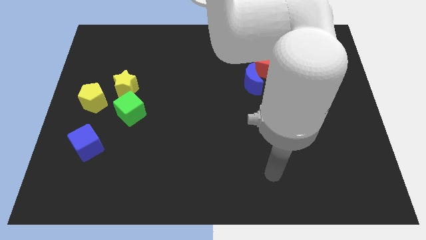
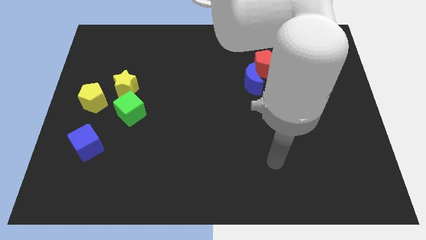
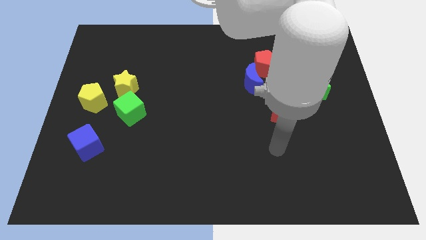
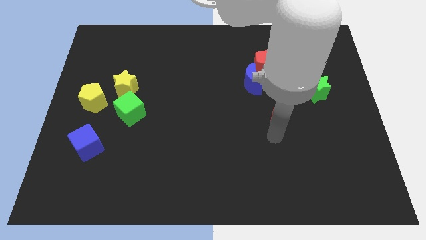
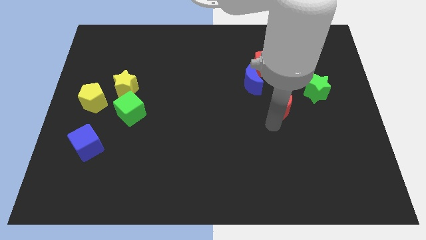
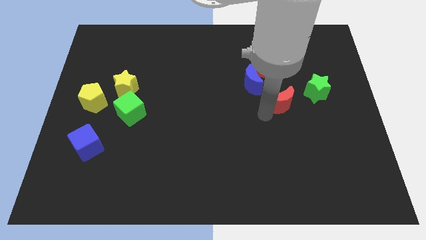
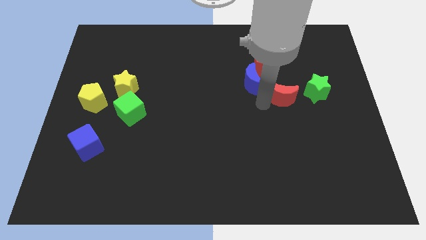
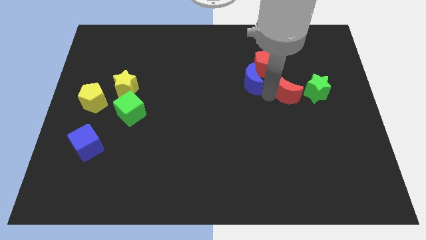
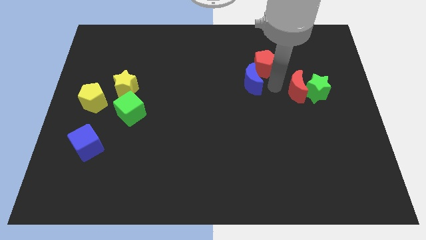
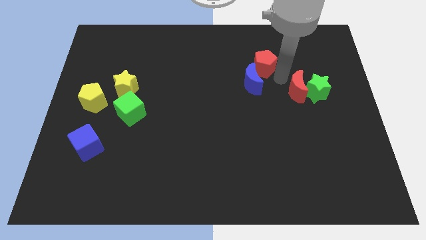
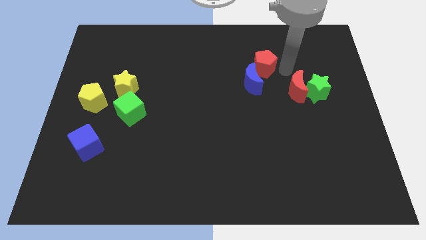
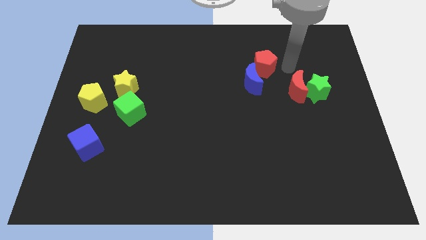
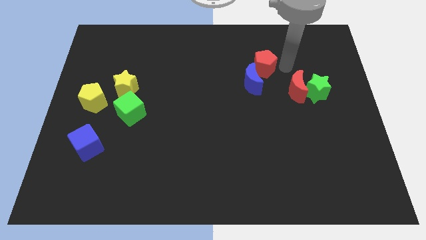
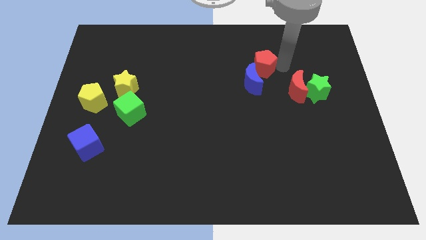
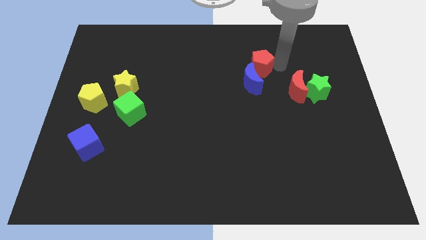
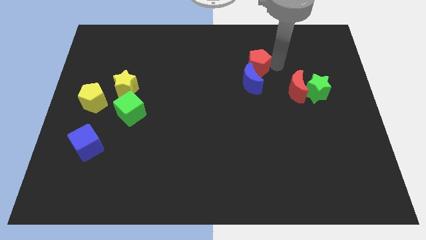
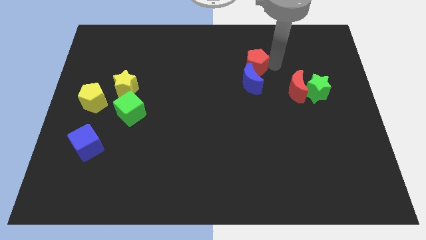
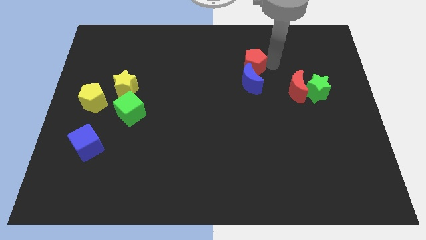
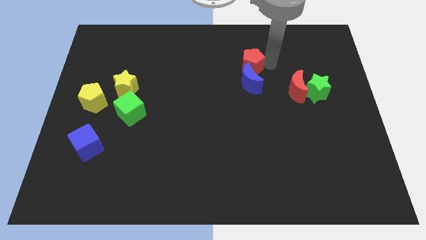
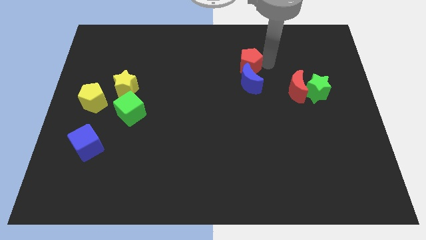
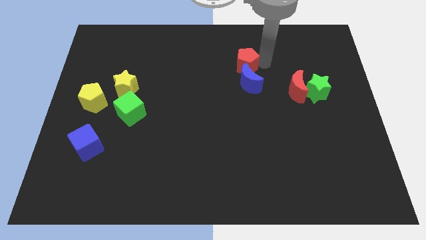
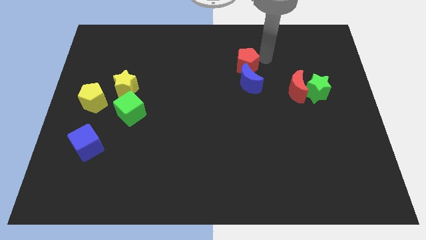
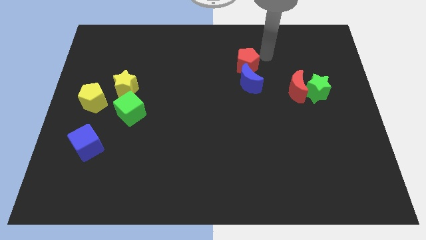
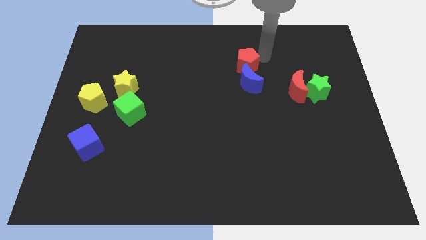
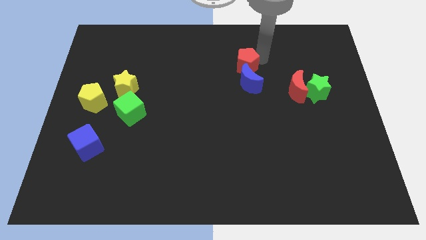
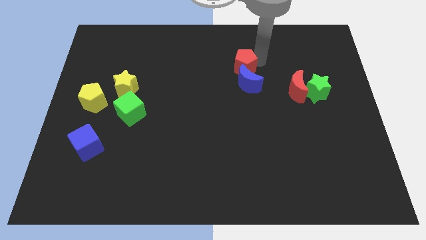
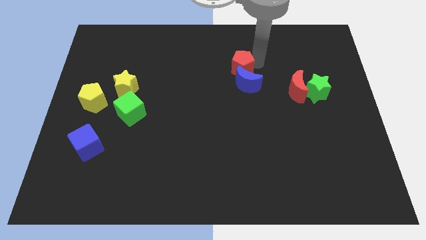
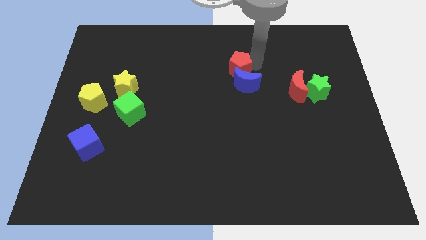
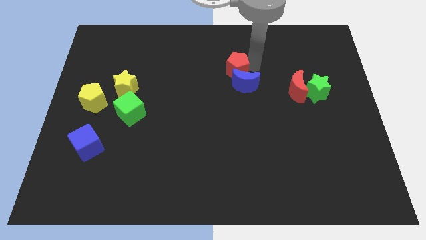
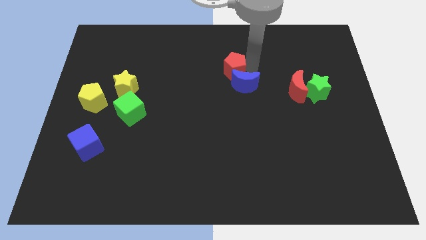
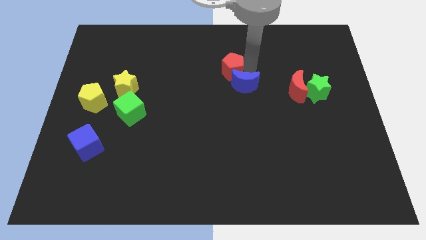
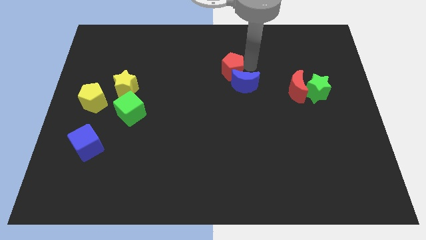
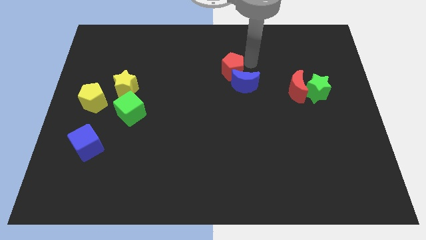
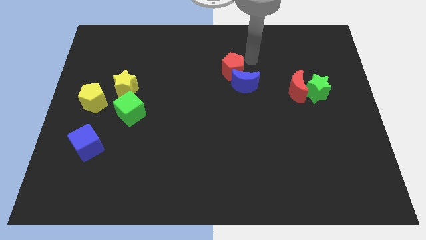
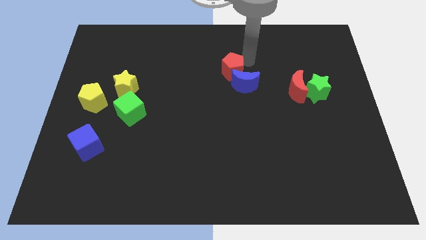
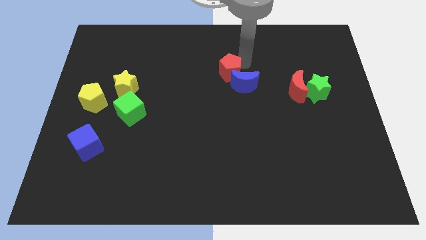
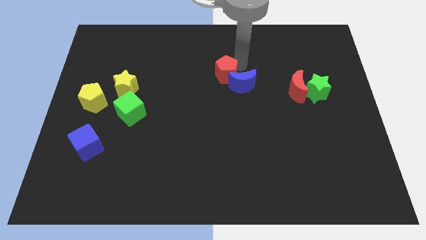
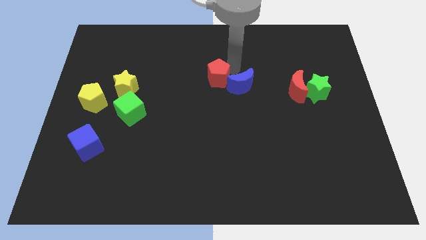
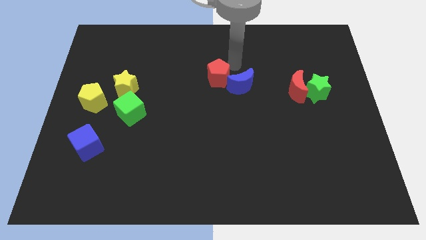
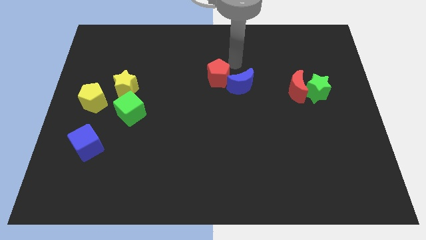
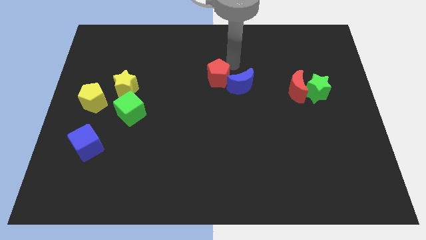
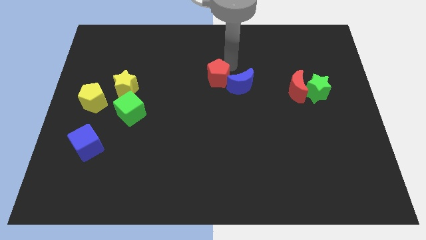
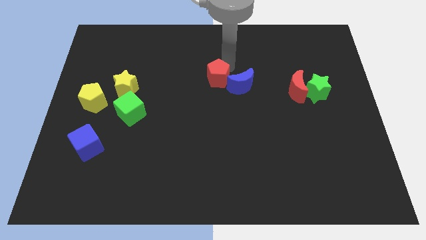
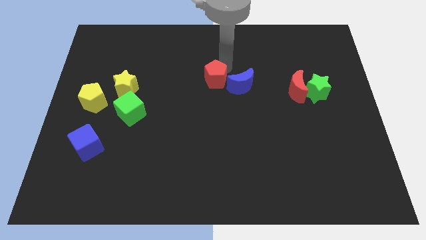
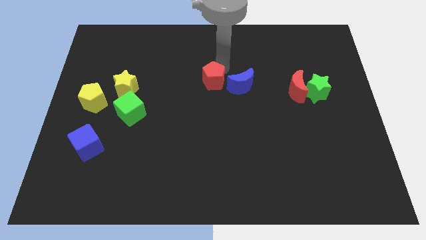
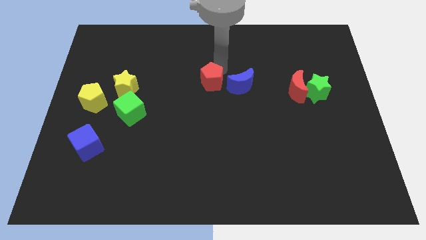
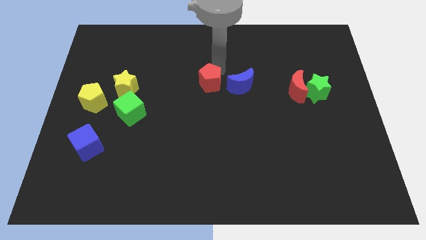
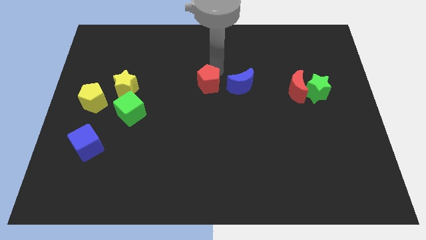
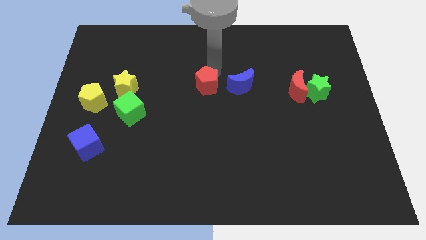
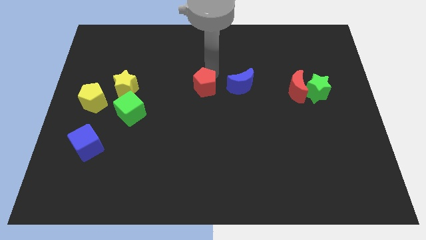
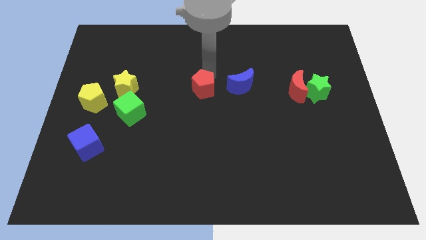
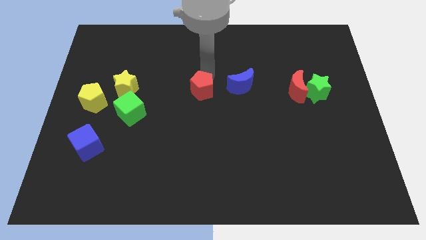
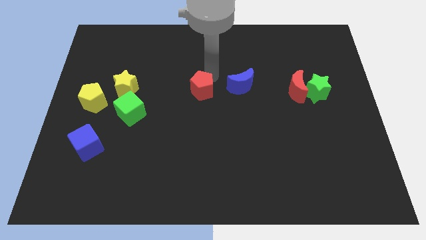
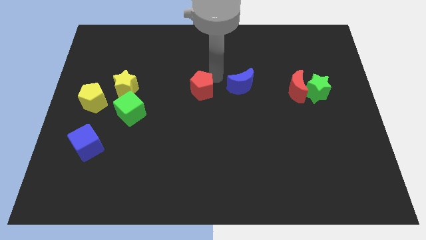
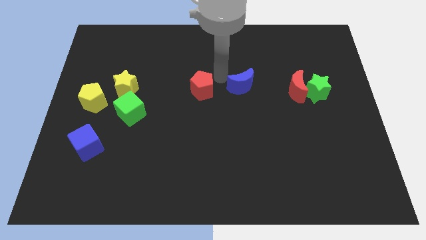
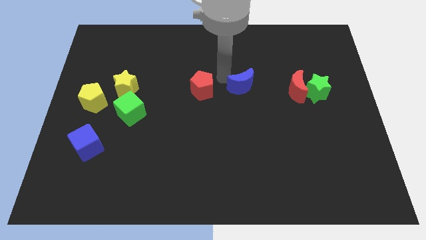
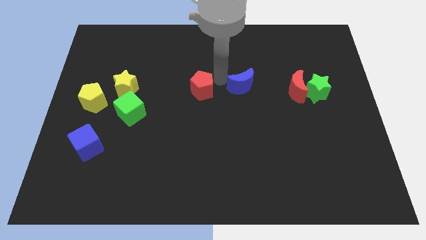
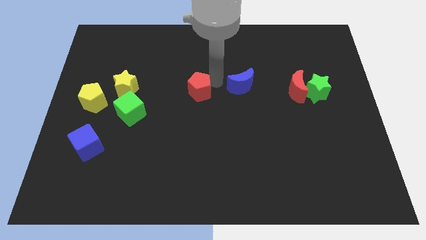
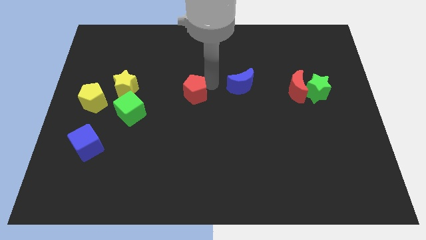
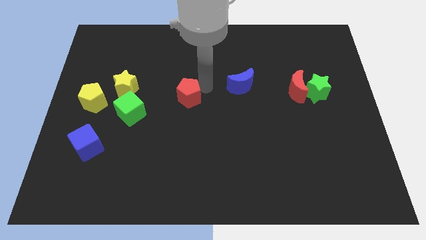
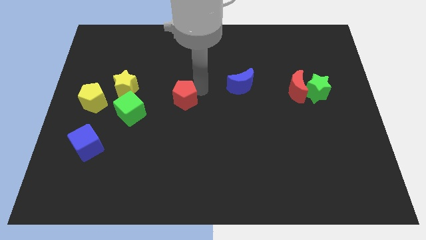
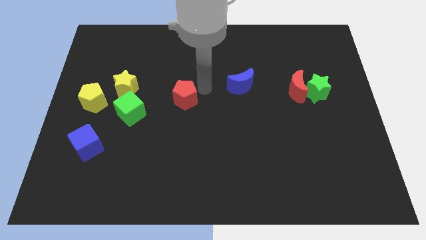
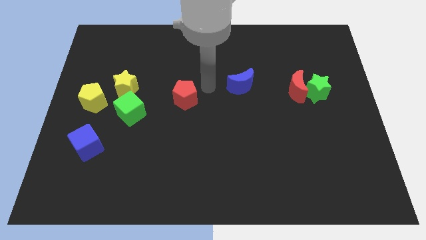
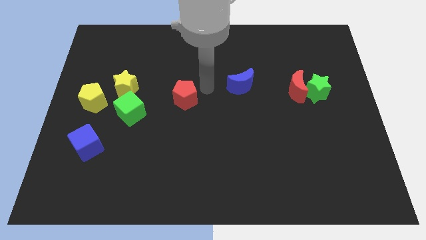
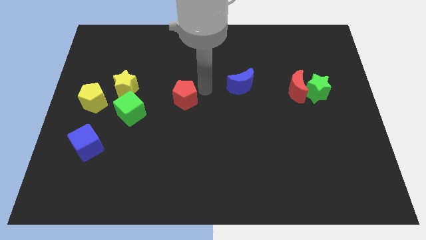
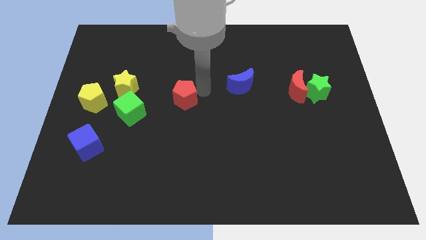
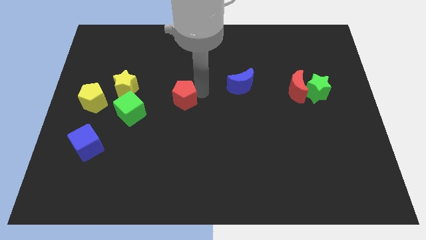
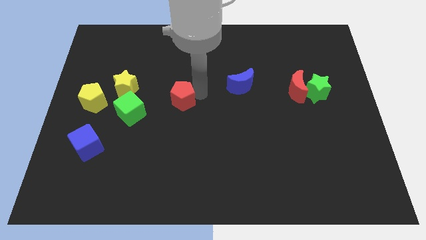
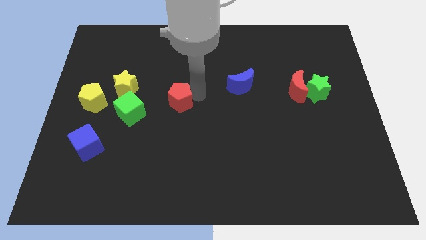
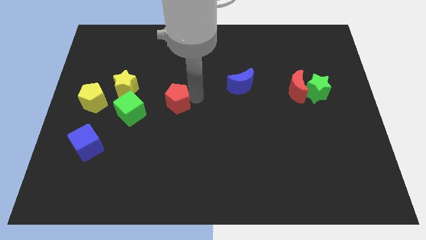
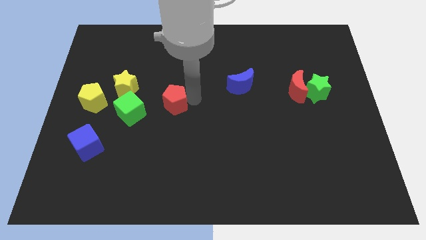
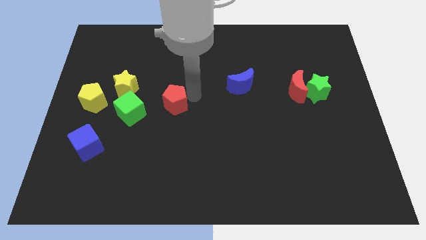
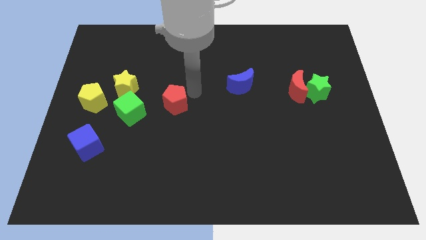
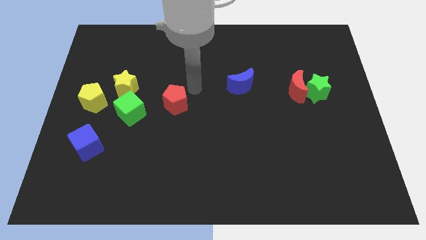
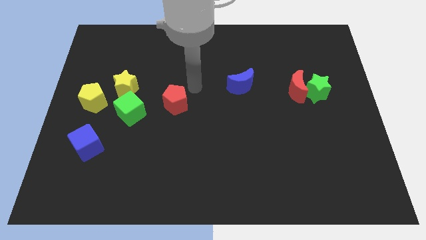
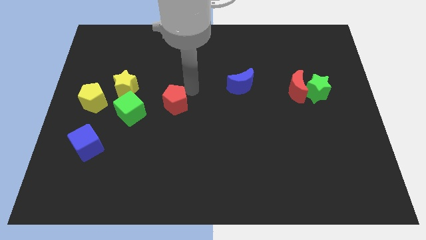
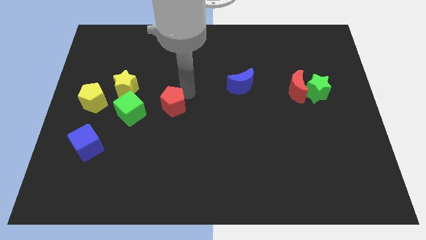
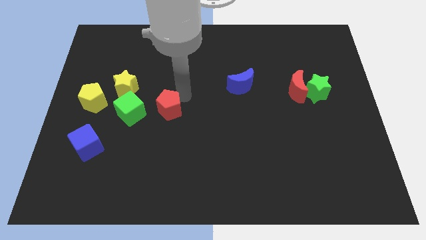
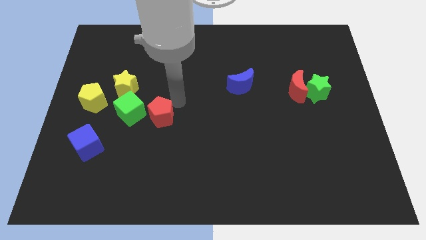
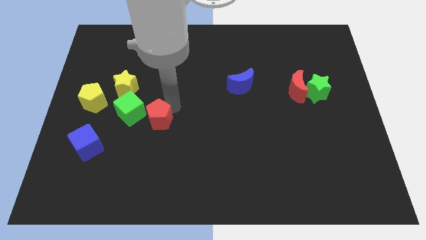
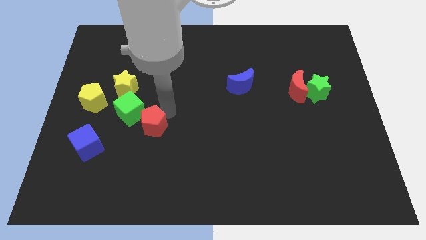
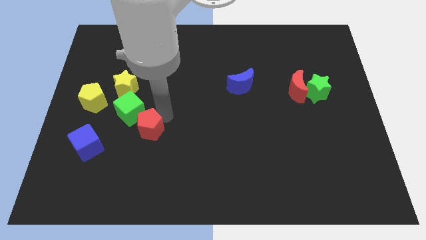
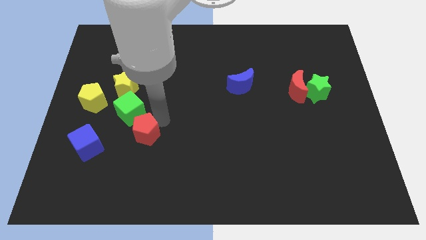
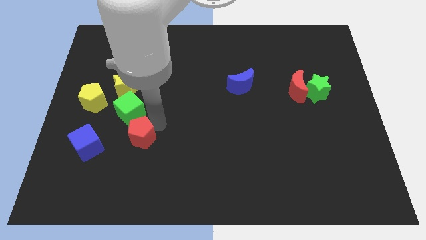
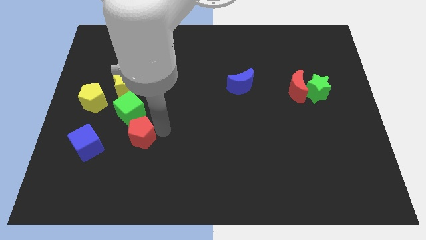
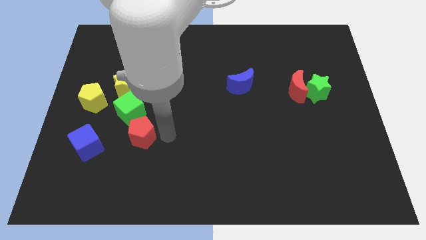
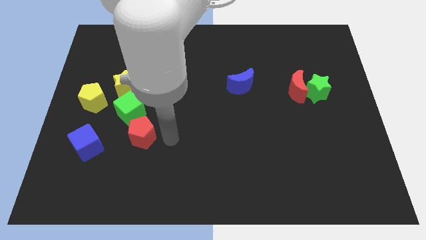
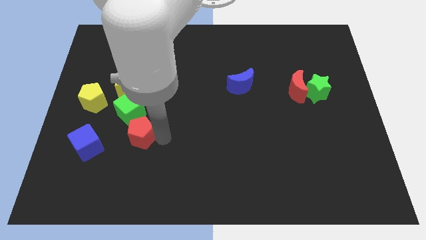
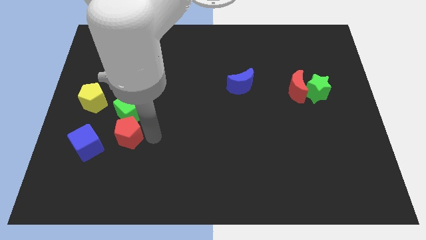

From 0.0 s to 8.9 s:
push the red pentagon to the bottom left of the green cube
